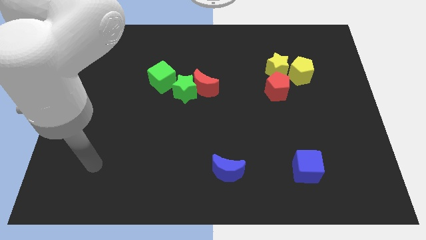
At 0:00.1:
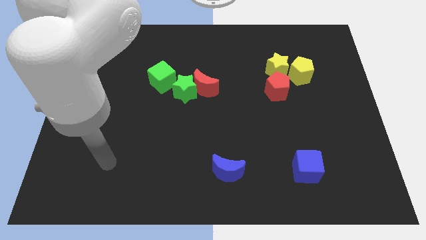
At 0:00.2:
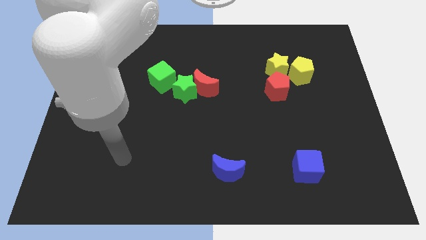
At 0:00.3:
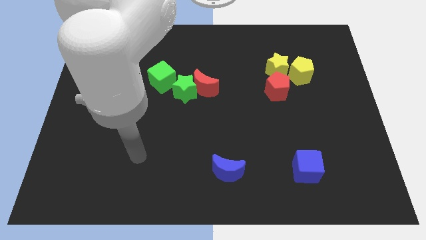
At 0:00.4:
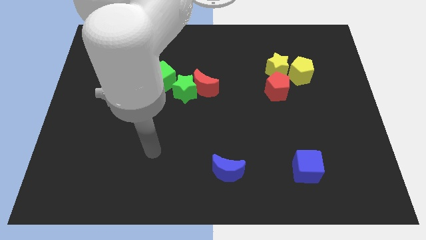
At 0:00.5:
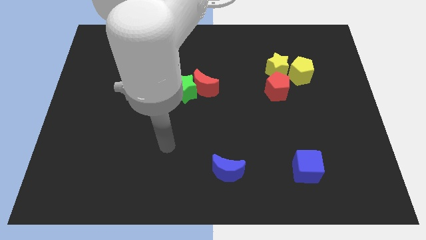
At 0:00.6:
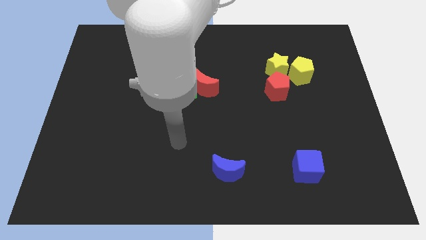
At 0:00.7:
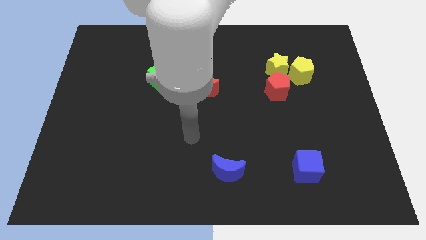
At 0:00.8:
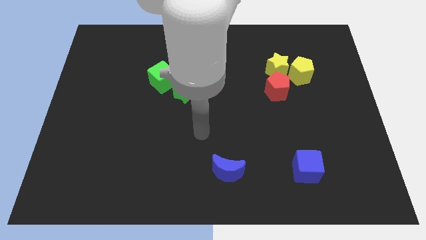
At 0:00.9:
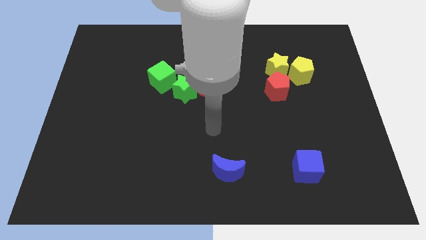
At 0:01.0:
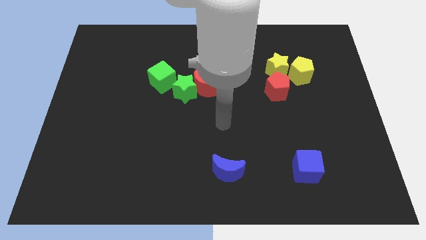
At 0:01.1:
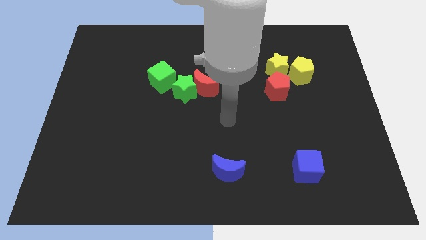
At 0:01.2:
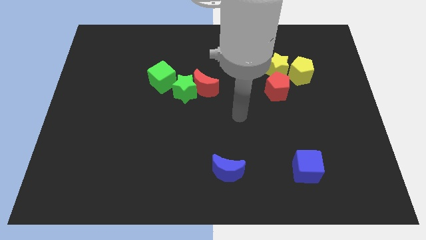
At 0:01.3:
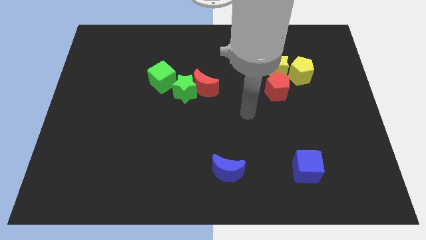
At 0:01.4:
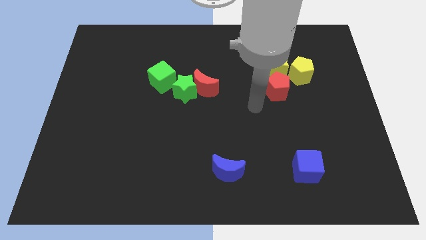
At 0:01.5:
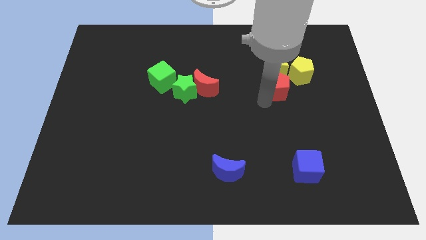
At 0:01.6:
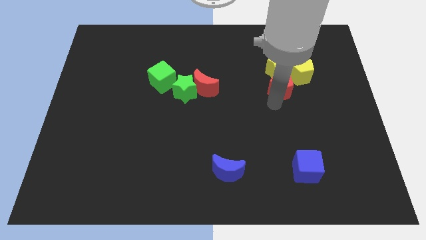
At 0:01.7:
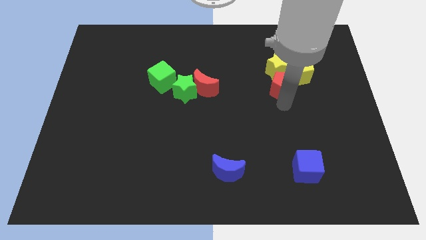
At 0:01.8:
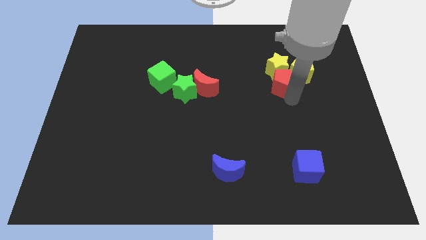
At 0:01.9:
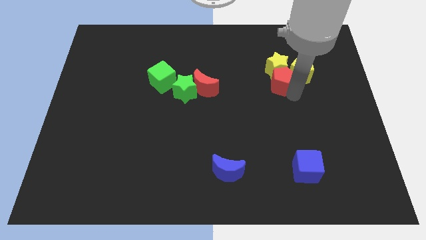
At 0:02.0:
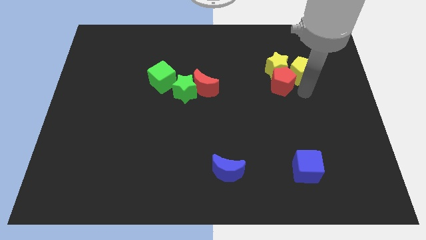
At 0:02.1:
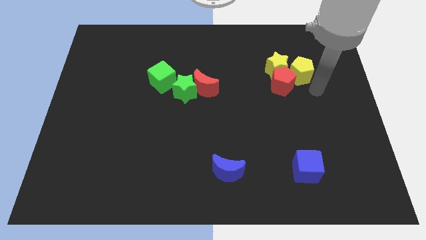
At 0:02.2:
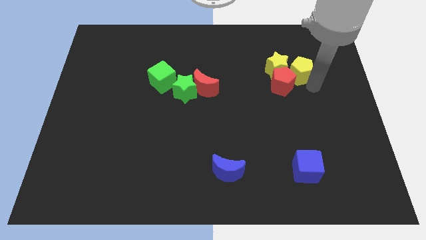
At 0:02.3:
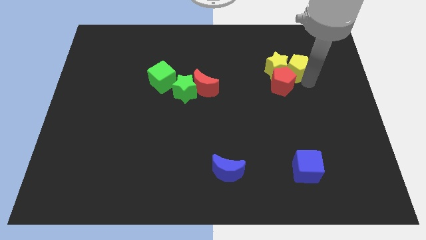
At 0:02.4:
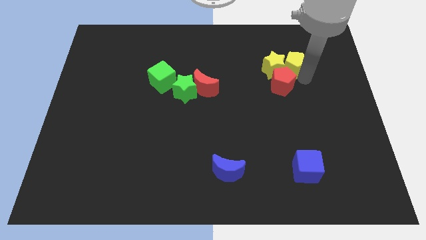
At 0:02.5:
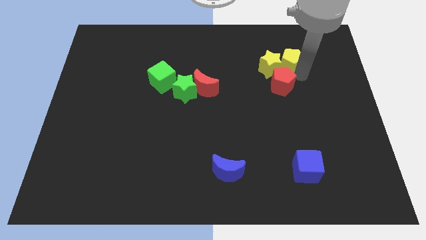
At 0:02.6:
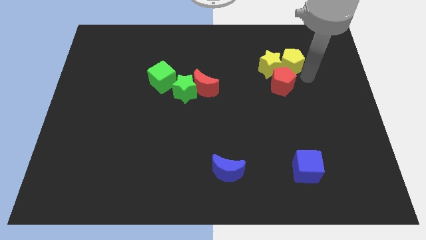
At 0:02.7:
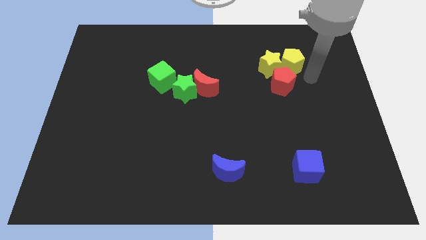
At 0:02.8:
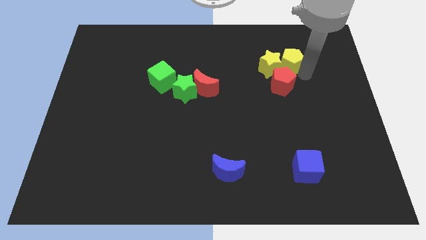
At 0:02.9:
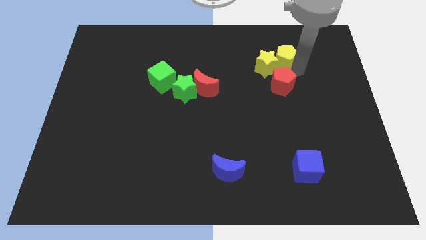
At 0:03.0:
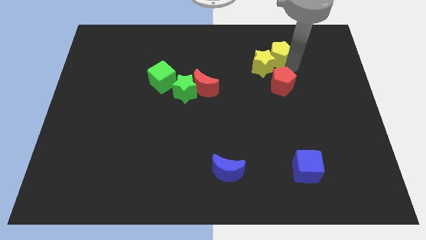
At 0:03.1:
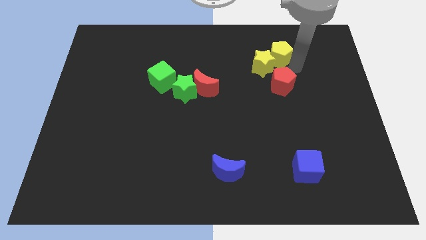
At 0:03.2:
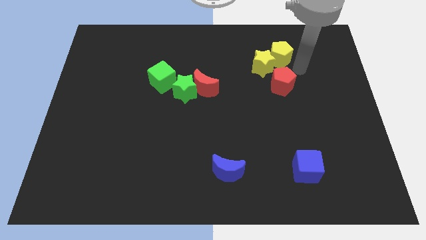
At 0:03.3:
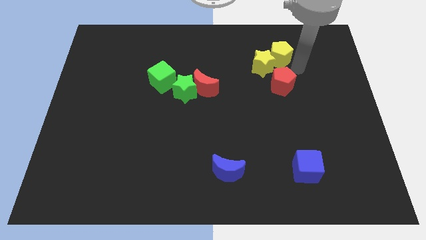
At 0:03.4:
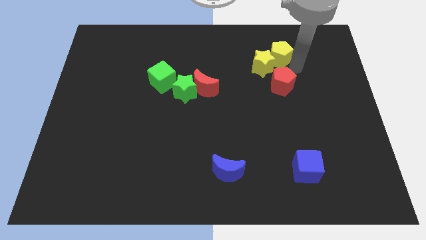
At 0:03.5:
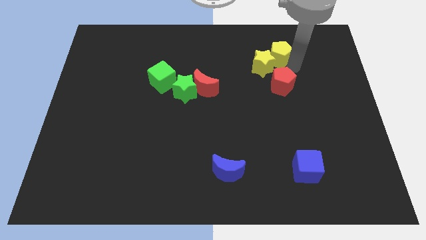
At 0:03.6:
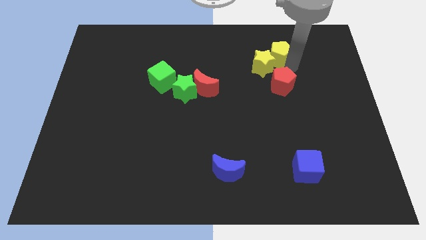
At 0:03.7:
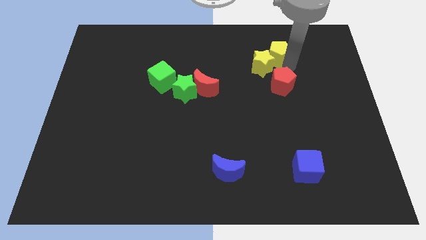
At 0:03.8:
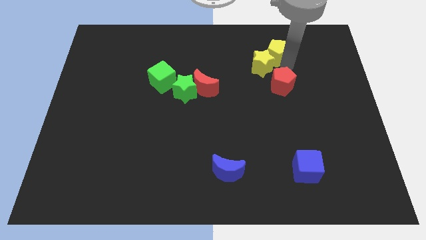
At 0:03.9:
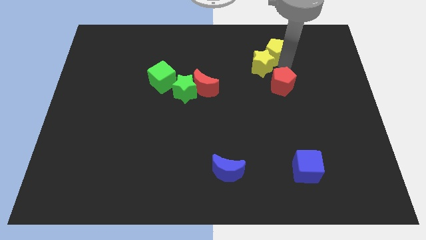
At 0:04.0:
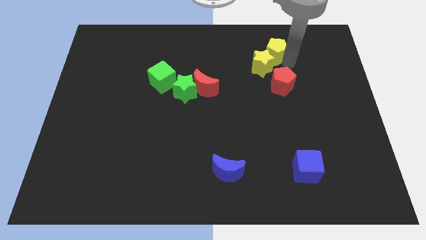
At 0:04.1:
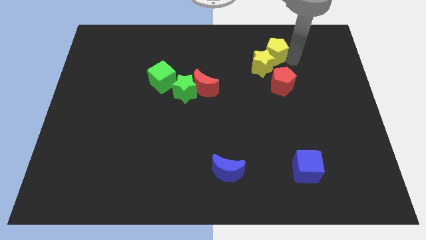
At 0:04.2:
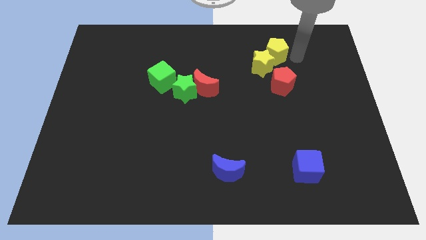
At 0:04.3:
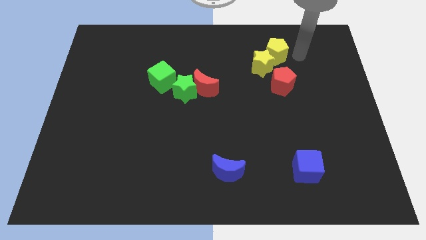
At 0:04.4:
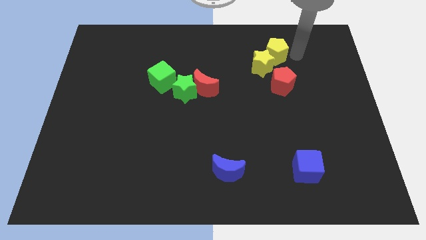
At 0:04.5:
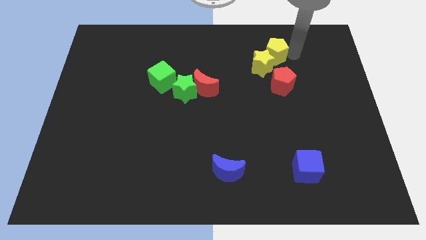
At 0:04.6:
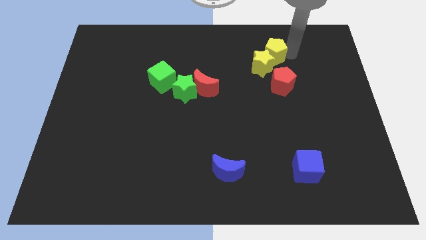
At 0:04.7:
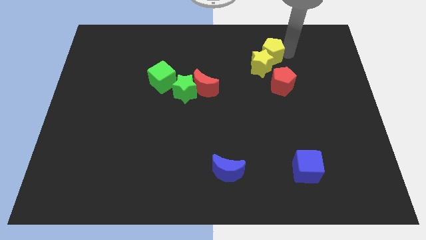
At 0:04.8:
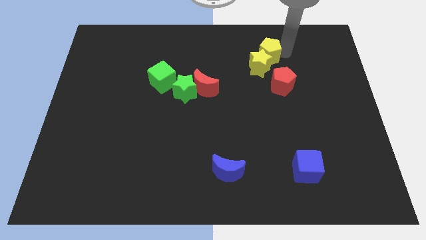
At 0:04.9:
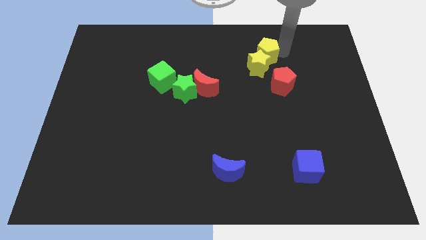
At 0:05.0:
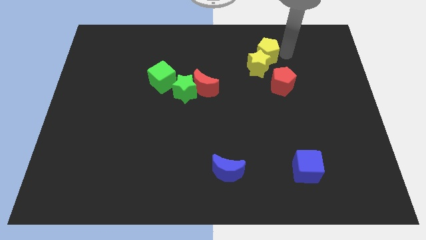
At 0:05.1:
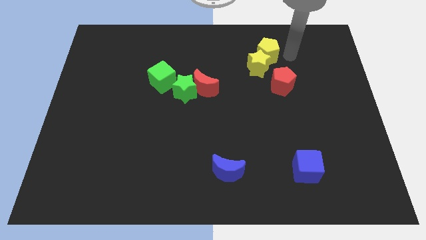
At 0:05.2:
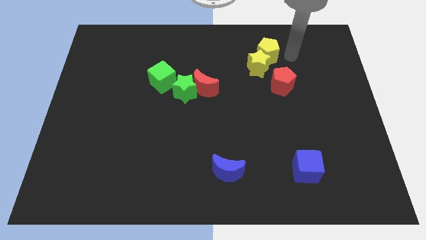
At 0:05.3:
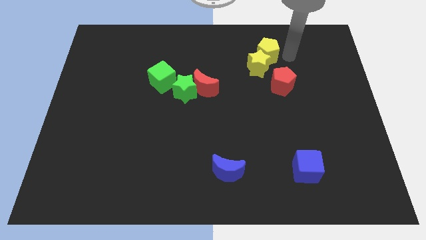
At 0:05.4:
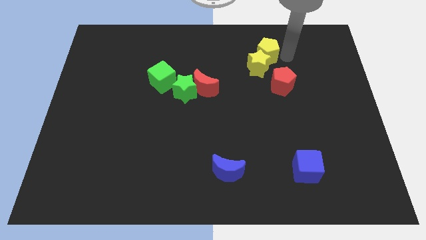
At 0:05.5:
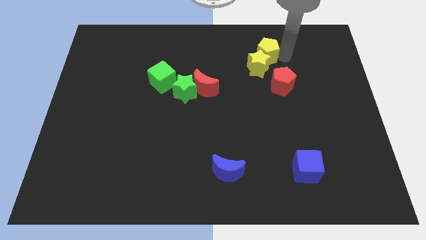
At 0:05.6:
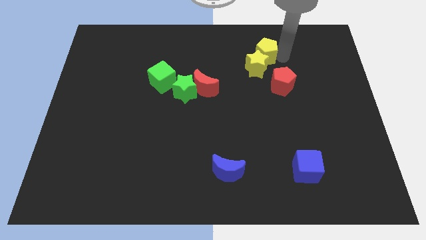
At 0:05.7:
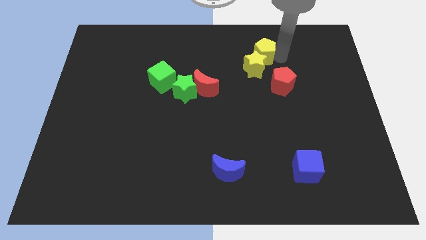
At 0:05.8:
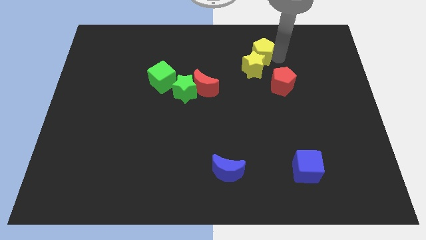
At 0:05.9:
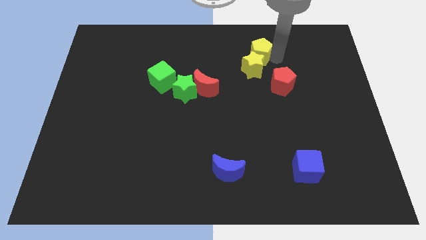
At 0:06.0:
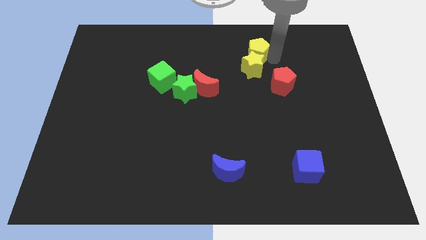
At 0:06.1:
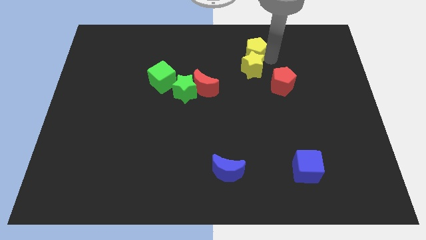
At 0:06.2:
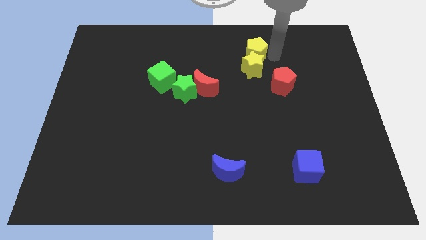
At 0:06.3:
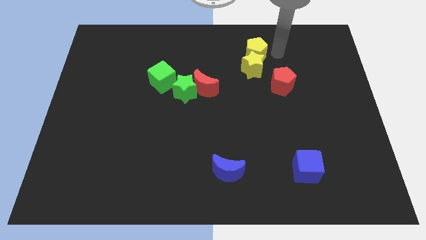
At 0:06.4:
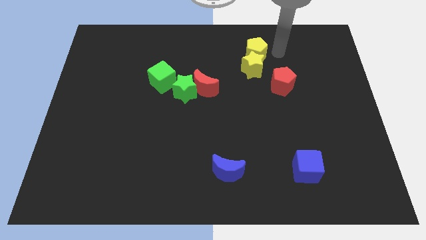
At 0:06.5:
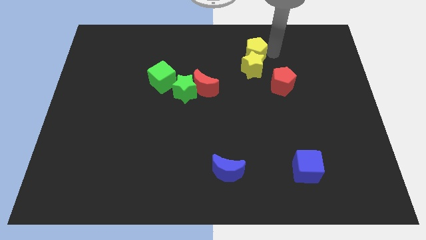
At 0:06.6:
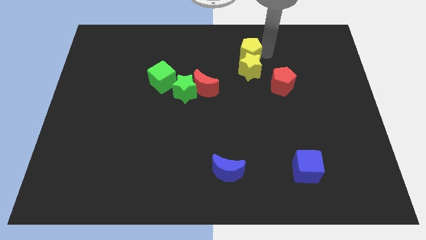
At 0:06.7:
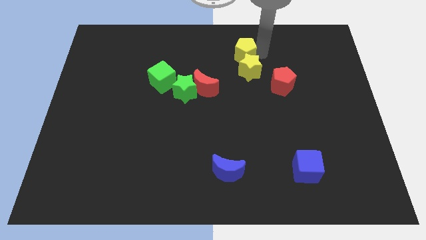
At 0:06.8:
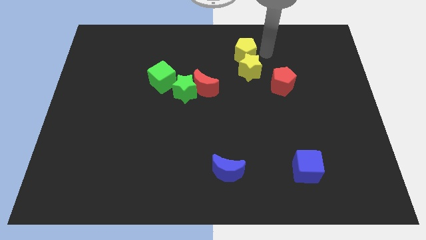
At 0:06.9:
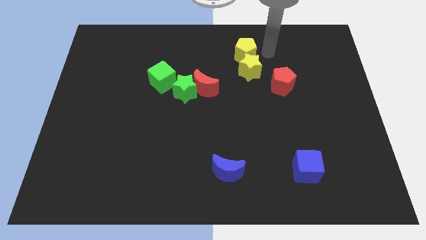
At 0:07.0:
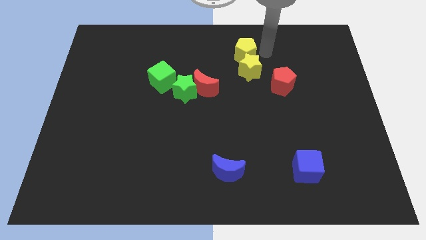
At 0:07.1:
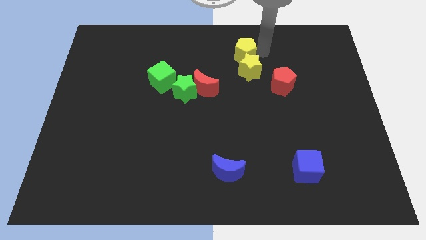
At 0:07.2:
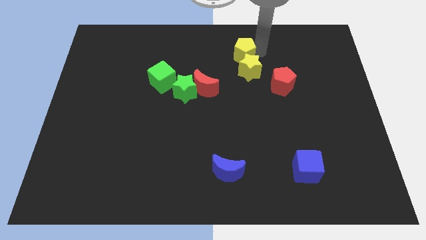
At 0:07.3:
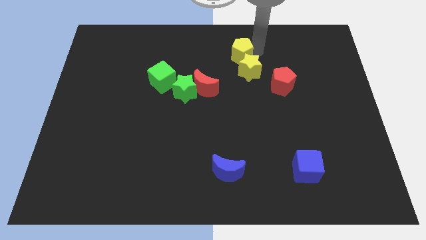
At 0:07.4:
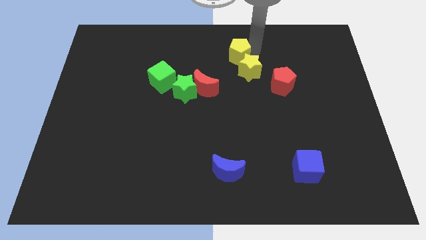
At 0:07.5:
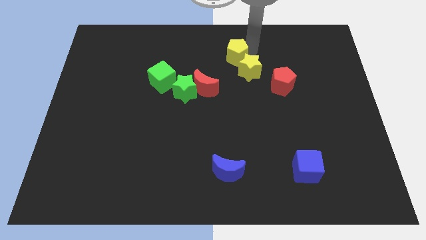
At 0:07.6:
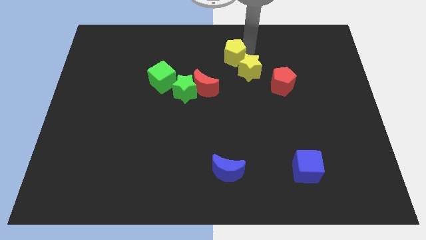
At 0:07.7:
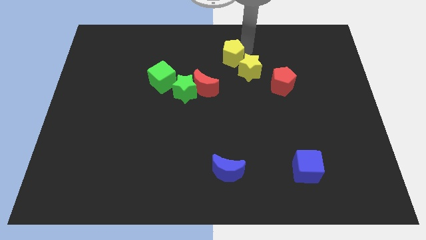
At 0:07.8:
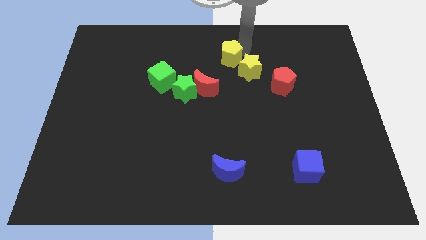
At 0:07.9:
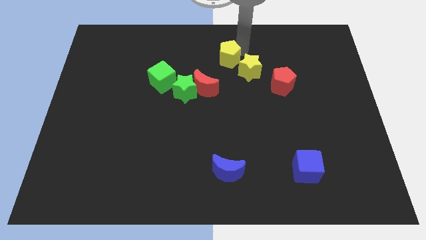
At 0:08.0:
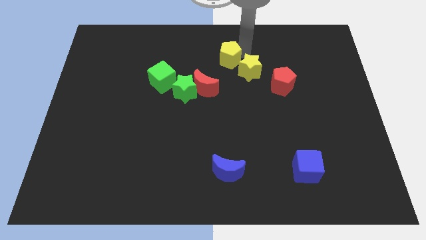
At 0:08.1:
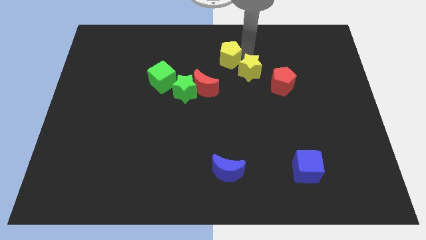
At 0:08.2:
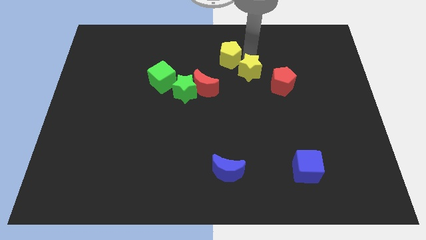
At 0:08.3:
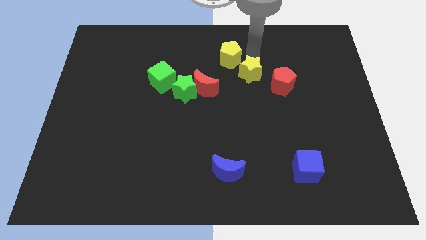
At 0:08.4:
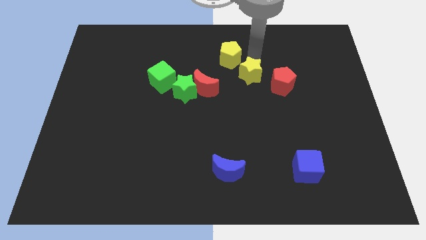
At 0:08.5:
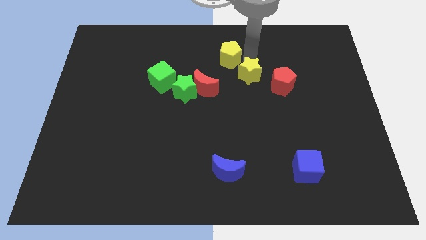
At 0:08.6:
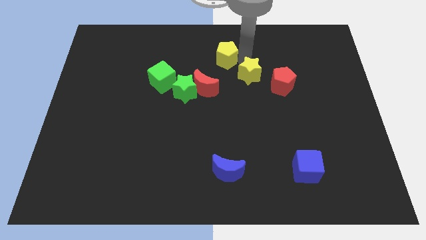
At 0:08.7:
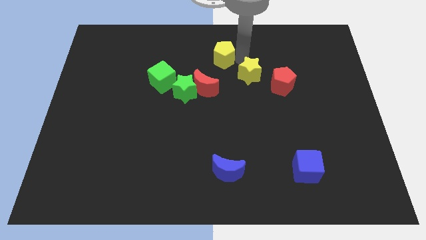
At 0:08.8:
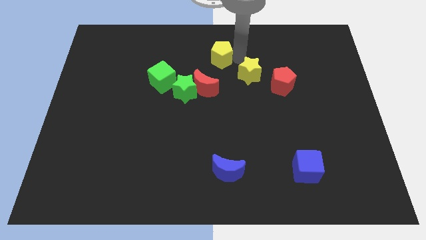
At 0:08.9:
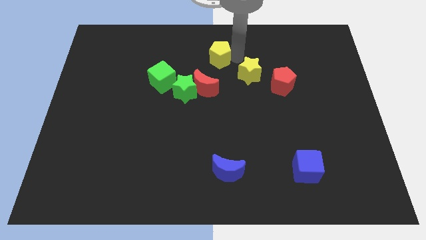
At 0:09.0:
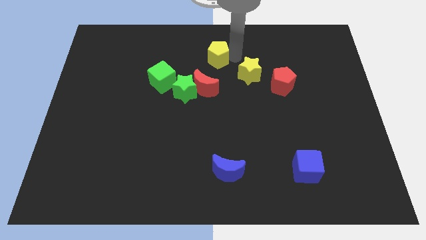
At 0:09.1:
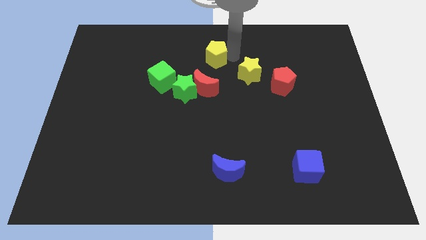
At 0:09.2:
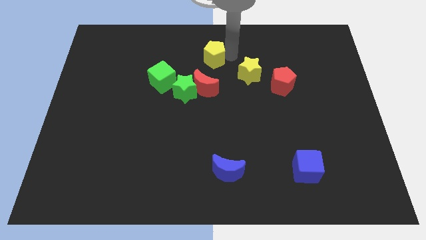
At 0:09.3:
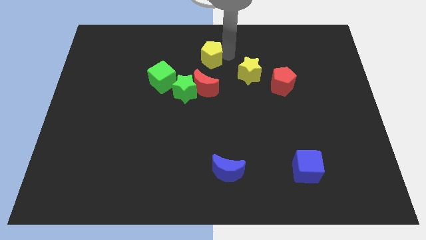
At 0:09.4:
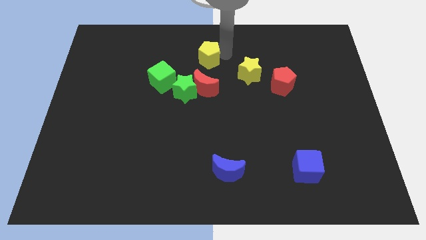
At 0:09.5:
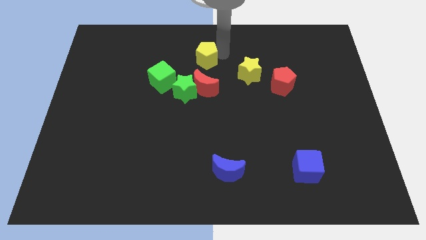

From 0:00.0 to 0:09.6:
slide the yellow pentagon to the top of the green star
